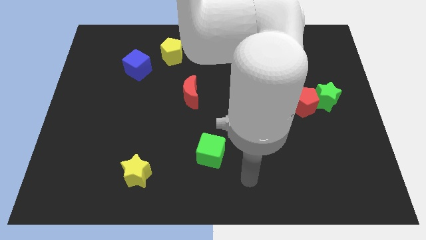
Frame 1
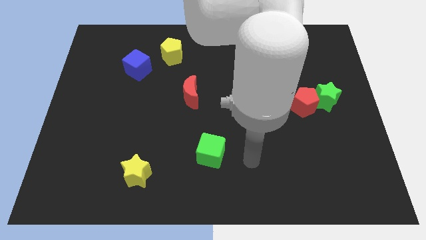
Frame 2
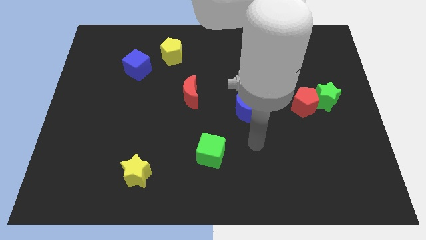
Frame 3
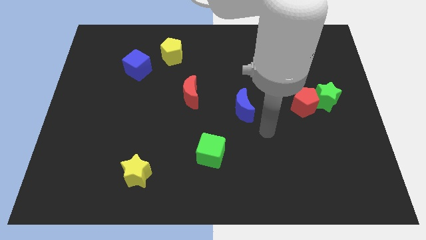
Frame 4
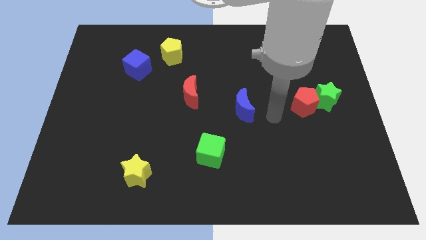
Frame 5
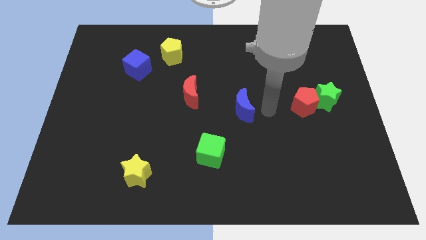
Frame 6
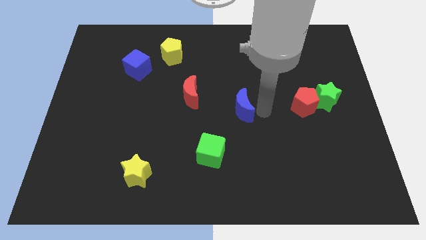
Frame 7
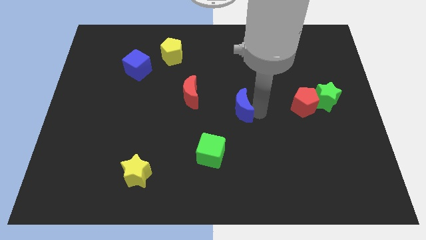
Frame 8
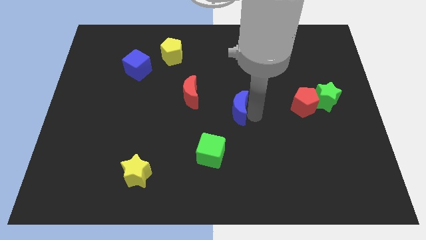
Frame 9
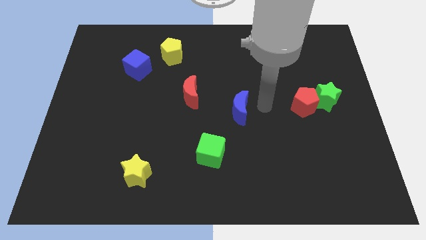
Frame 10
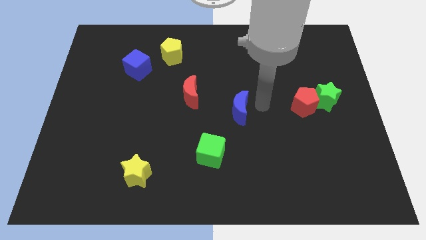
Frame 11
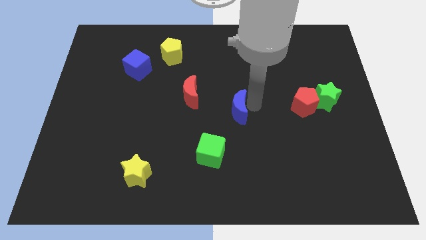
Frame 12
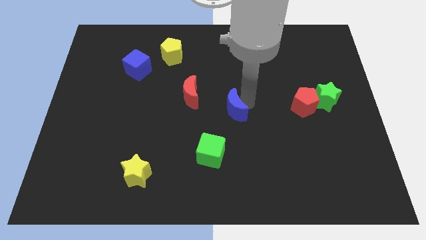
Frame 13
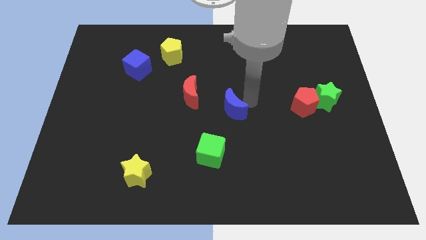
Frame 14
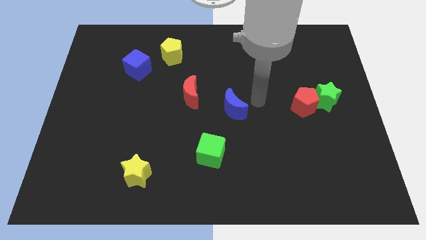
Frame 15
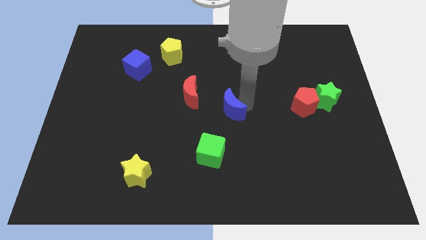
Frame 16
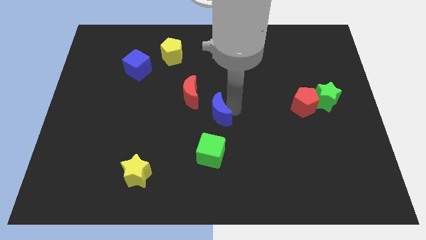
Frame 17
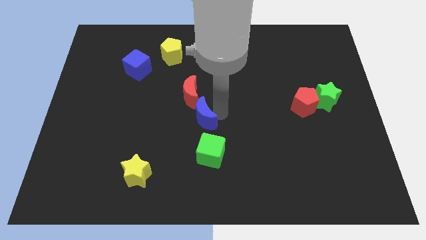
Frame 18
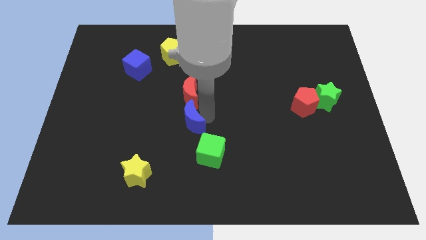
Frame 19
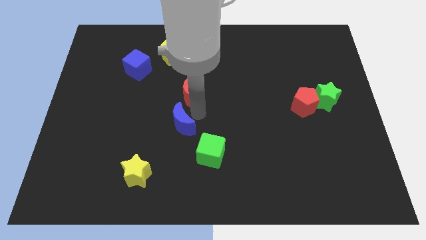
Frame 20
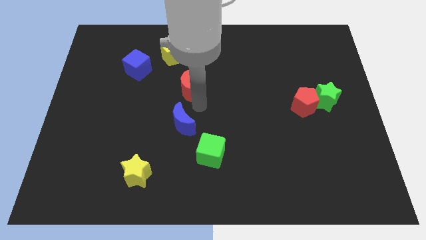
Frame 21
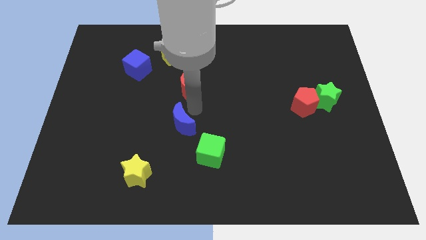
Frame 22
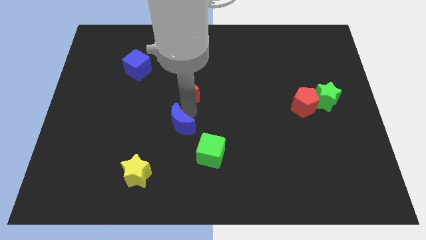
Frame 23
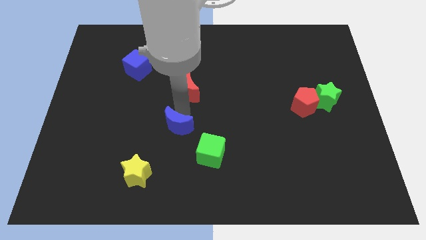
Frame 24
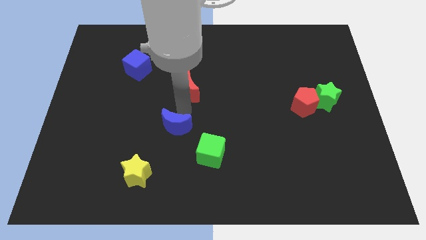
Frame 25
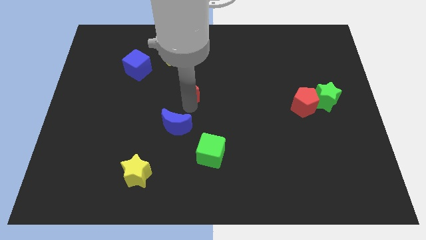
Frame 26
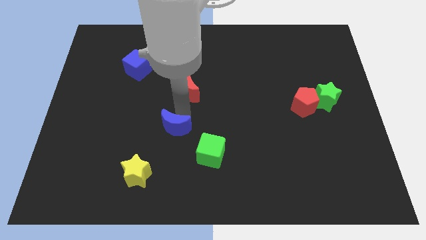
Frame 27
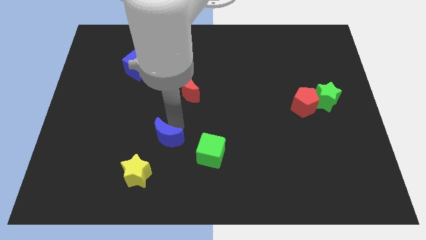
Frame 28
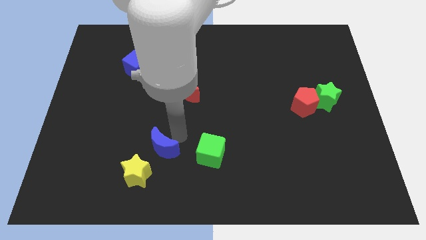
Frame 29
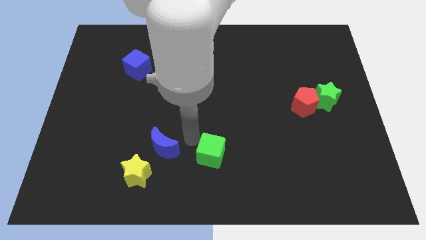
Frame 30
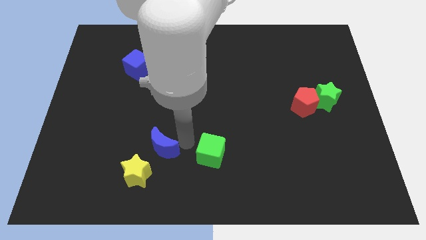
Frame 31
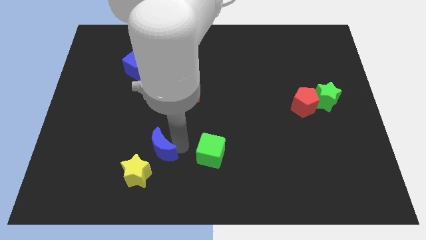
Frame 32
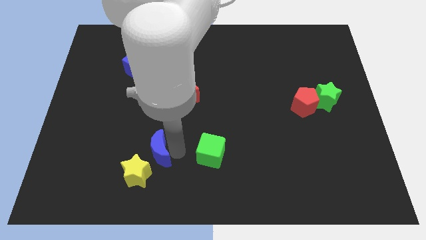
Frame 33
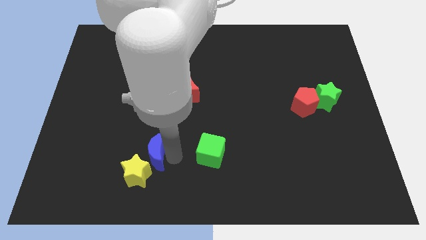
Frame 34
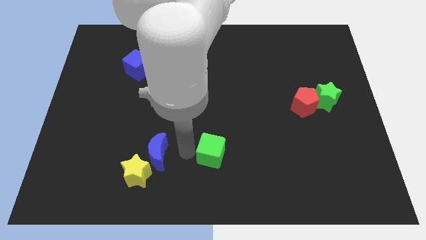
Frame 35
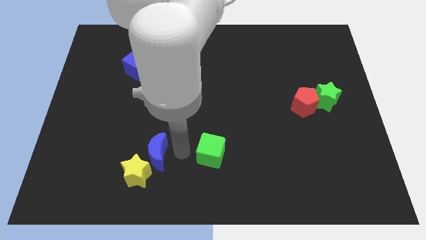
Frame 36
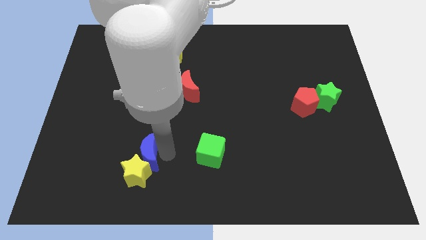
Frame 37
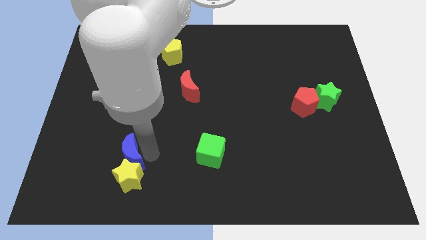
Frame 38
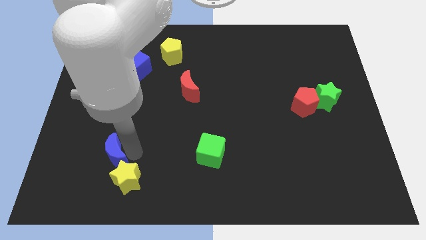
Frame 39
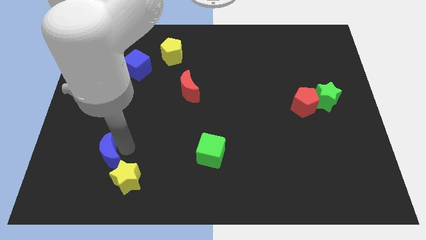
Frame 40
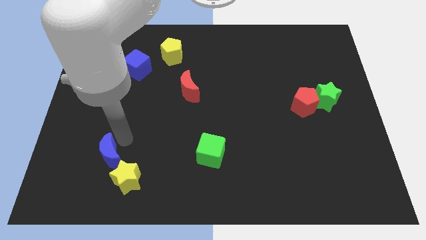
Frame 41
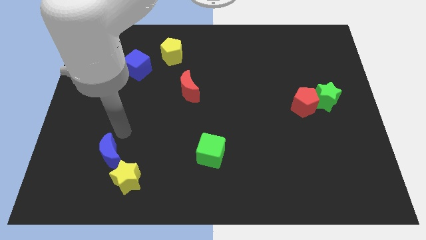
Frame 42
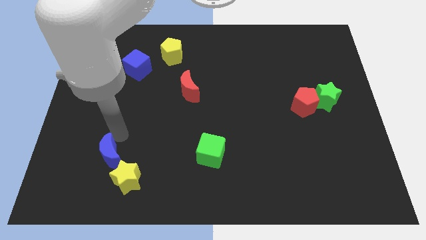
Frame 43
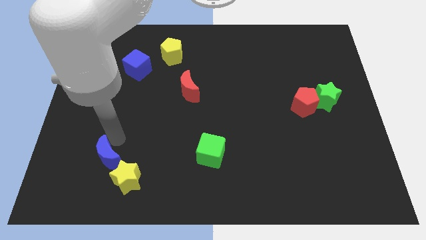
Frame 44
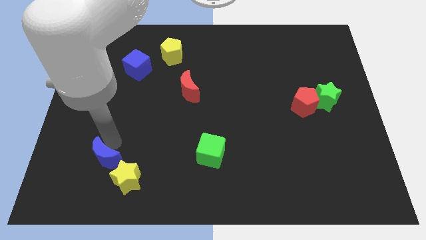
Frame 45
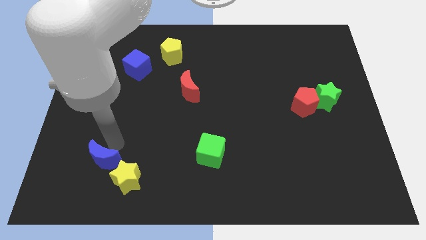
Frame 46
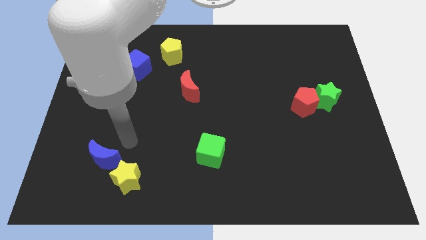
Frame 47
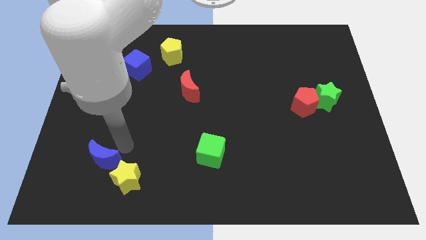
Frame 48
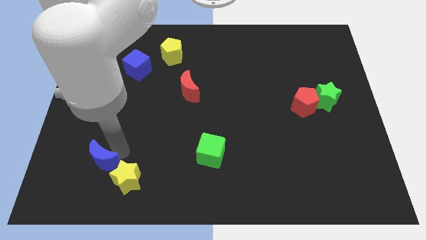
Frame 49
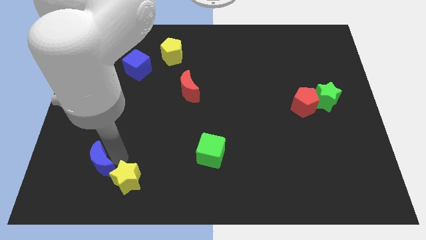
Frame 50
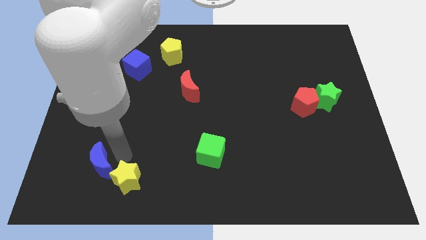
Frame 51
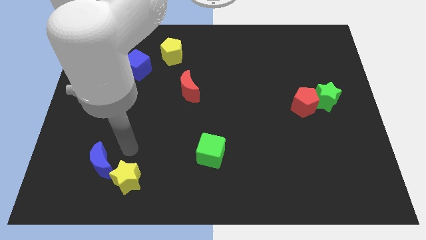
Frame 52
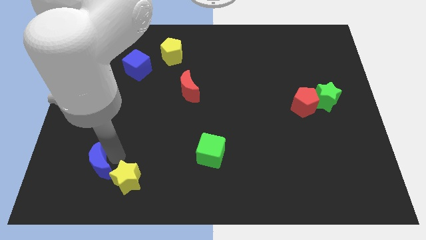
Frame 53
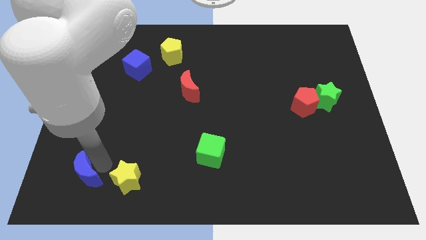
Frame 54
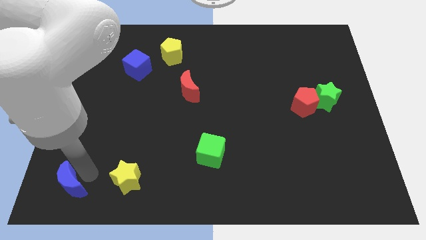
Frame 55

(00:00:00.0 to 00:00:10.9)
move the blue moon to the bottom left of the board

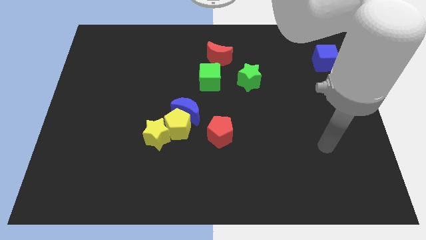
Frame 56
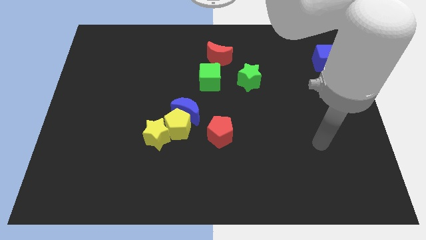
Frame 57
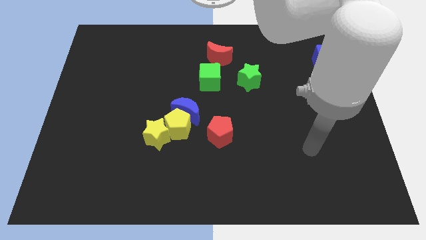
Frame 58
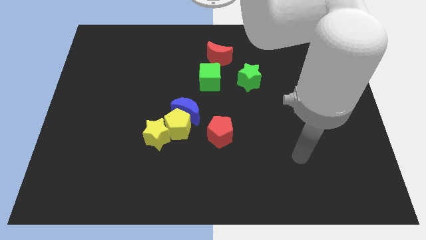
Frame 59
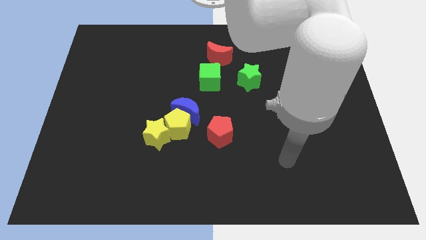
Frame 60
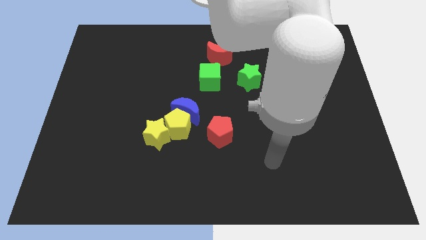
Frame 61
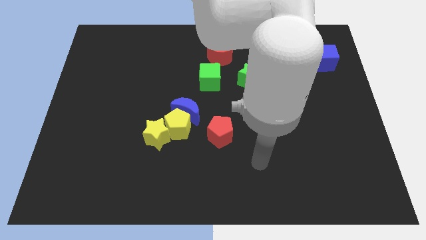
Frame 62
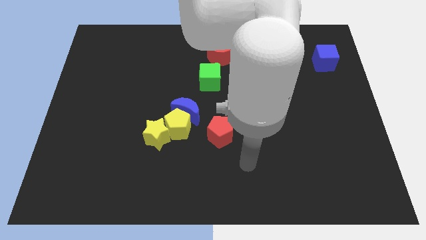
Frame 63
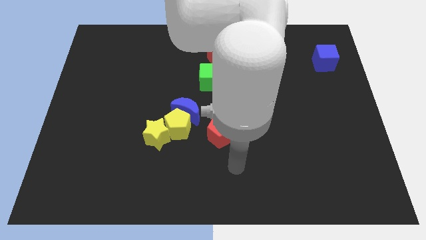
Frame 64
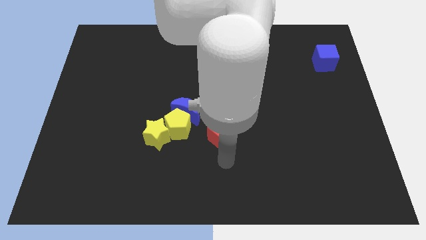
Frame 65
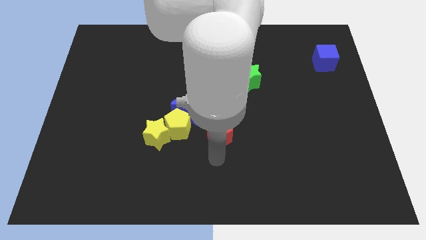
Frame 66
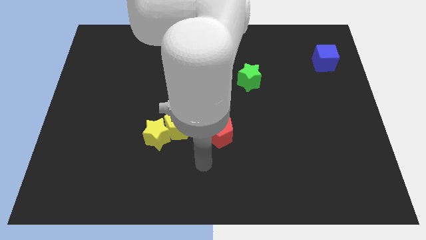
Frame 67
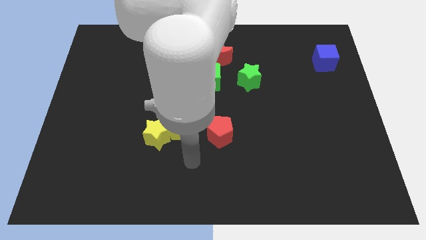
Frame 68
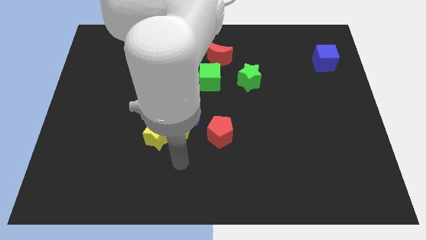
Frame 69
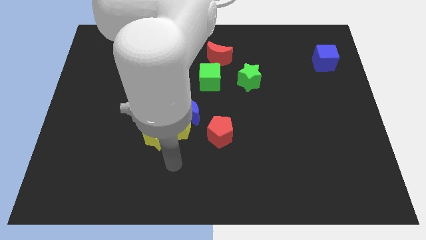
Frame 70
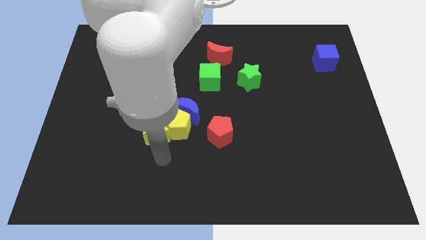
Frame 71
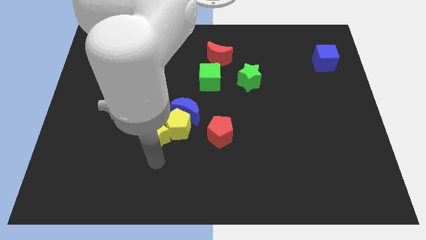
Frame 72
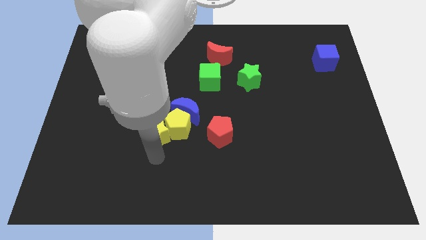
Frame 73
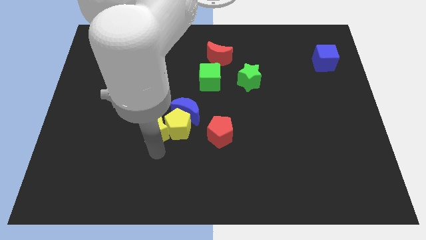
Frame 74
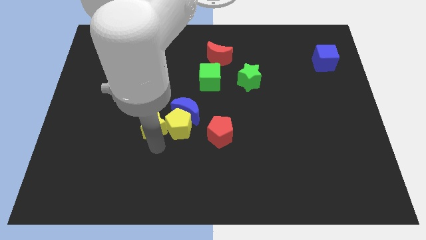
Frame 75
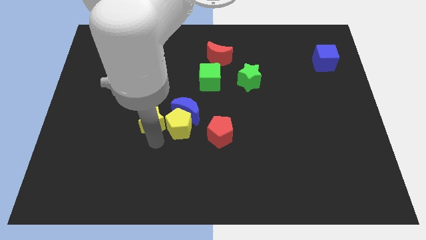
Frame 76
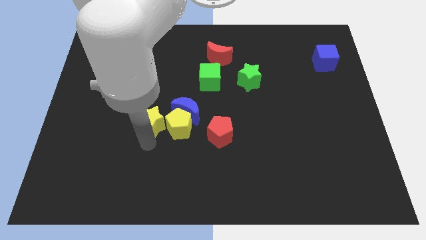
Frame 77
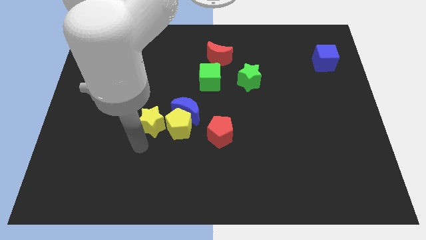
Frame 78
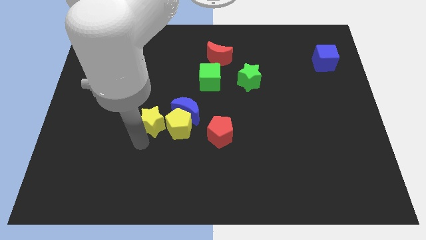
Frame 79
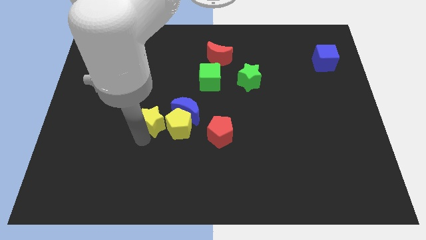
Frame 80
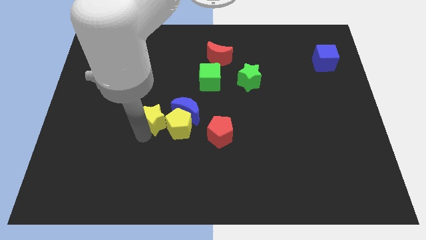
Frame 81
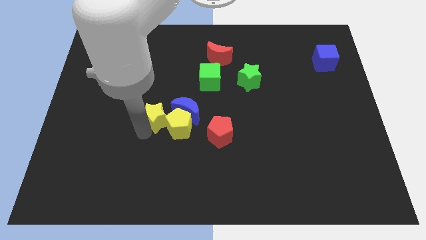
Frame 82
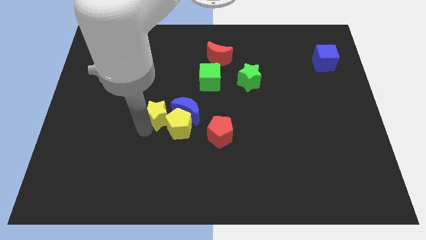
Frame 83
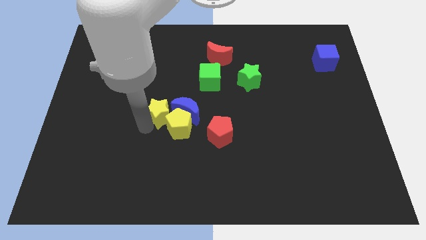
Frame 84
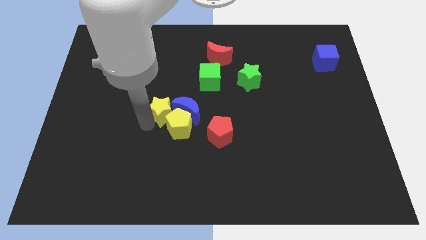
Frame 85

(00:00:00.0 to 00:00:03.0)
put the yellow star to the center of the board
